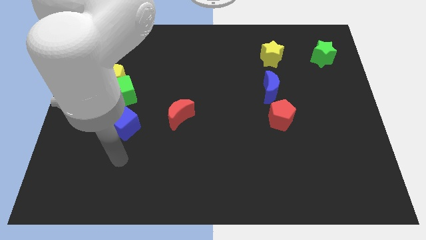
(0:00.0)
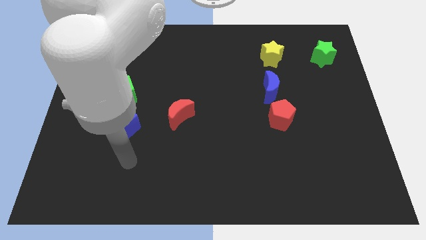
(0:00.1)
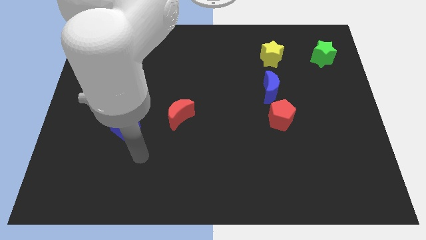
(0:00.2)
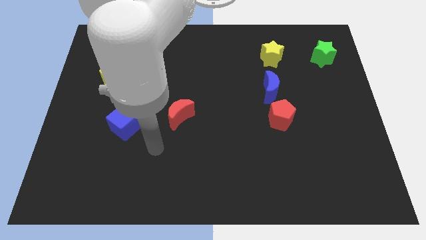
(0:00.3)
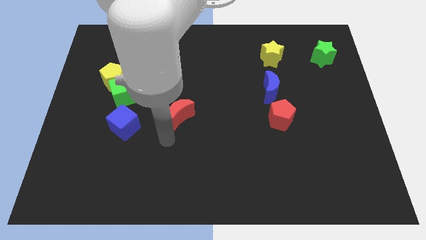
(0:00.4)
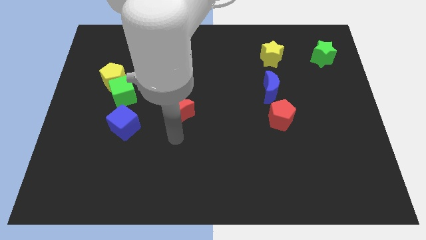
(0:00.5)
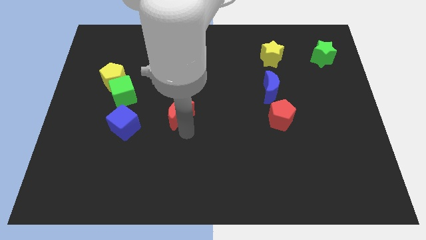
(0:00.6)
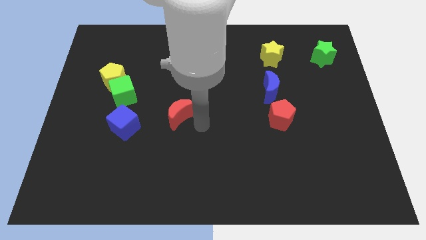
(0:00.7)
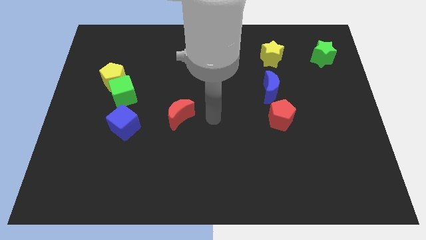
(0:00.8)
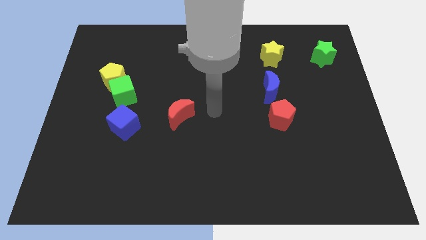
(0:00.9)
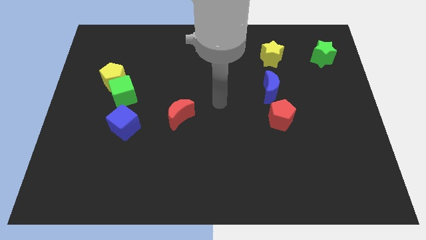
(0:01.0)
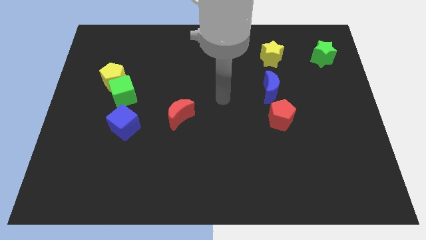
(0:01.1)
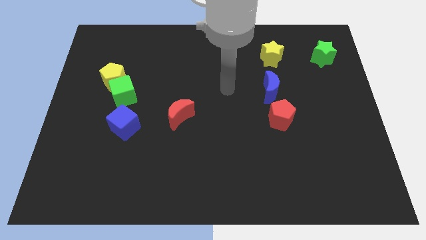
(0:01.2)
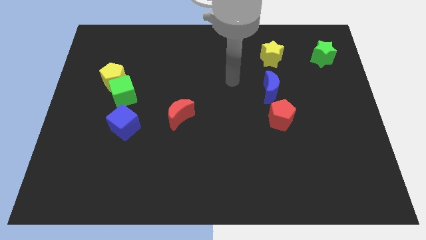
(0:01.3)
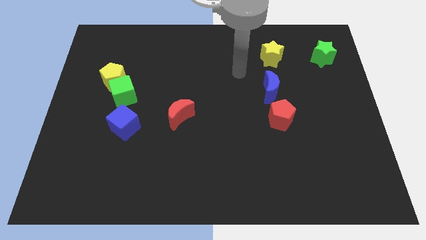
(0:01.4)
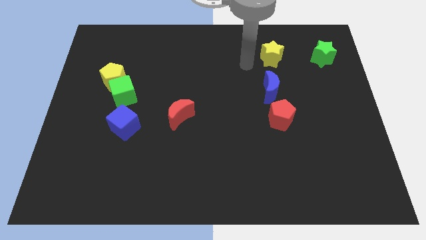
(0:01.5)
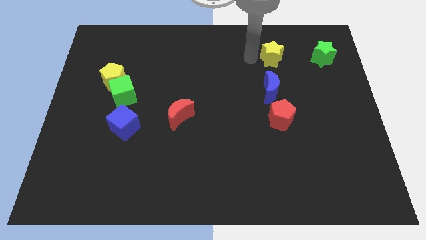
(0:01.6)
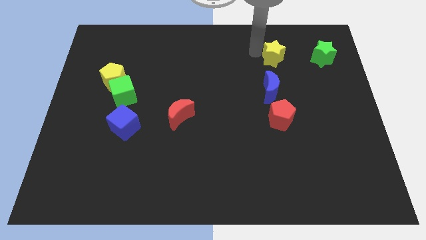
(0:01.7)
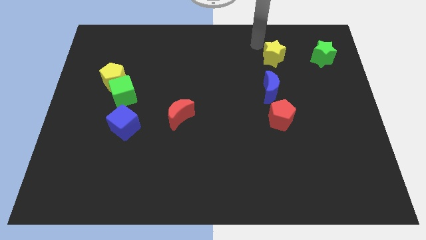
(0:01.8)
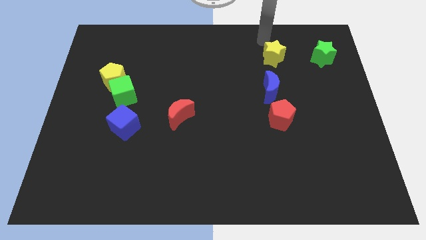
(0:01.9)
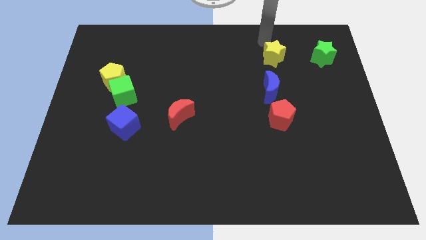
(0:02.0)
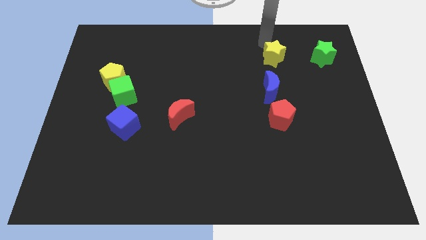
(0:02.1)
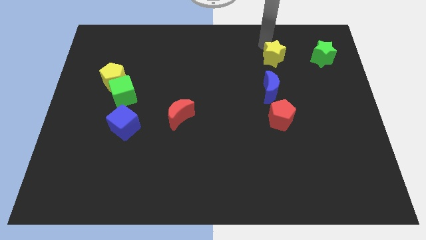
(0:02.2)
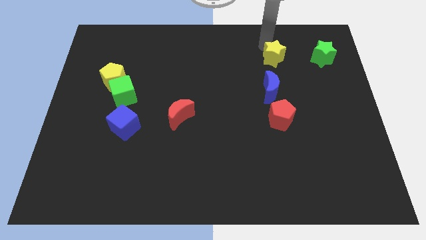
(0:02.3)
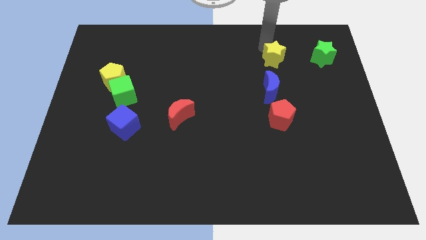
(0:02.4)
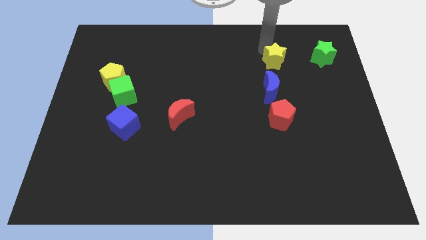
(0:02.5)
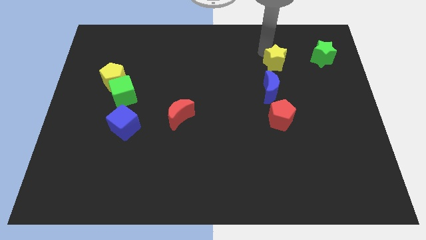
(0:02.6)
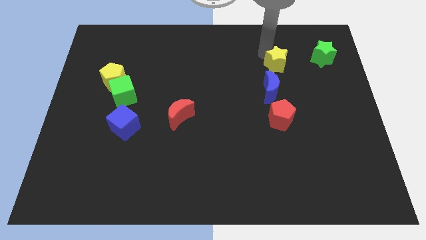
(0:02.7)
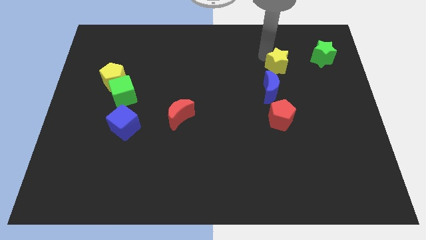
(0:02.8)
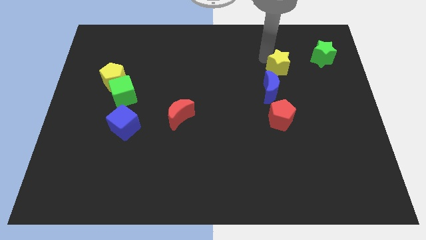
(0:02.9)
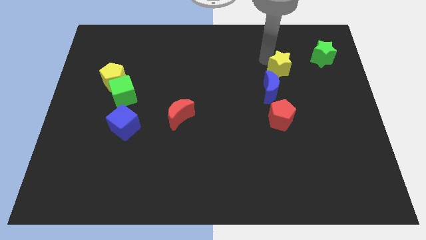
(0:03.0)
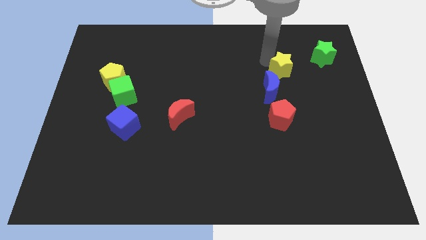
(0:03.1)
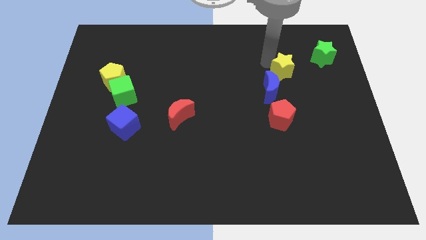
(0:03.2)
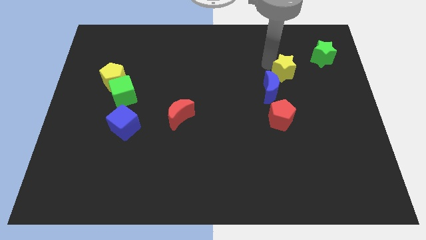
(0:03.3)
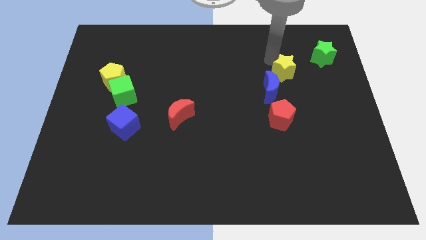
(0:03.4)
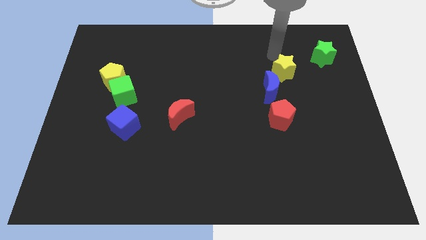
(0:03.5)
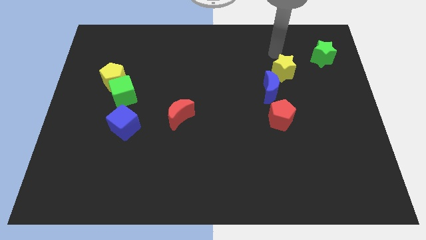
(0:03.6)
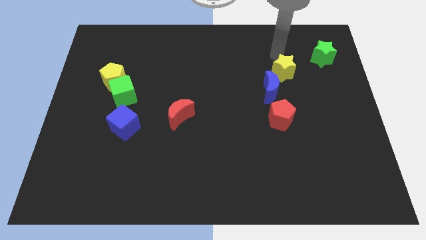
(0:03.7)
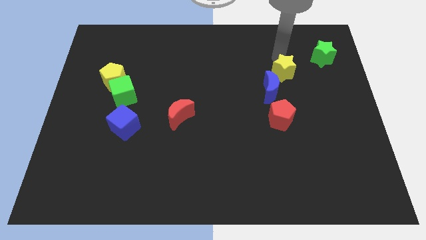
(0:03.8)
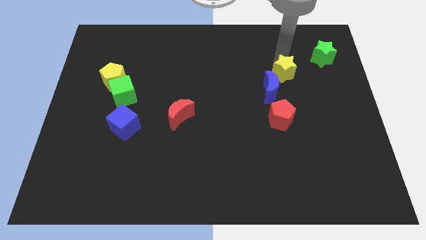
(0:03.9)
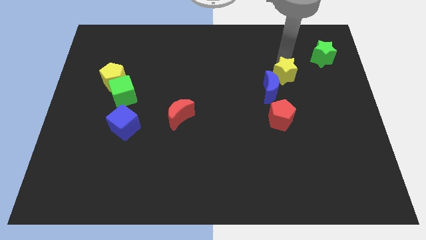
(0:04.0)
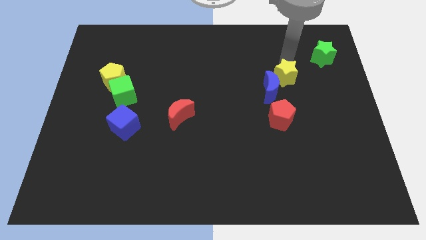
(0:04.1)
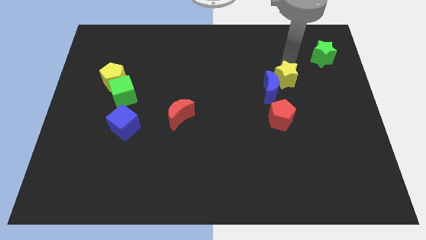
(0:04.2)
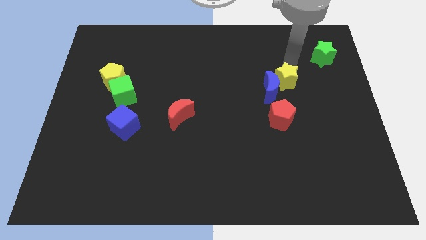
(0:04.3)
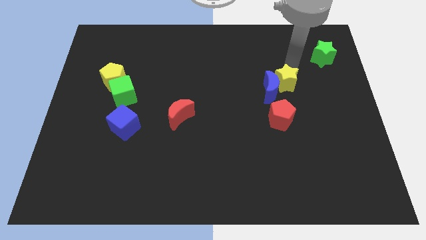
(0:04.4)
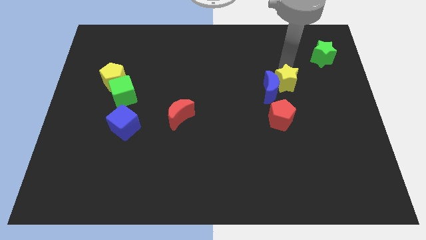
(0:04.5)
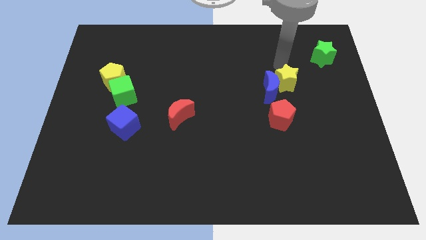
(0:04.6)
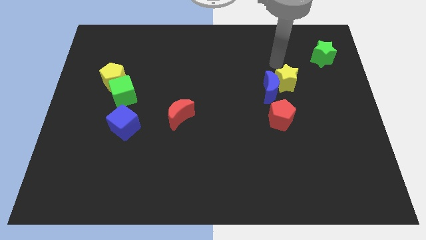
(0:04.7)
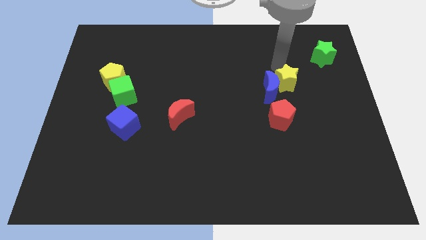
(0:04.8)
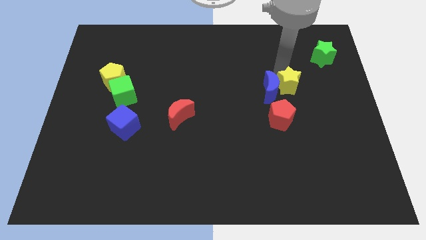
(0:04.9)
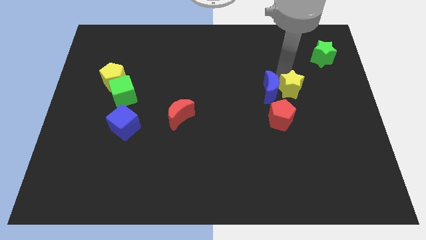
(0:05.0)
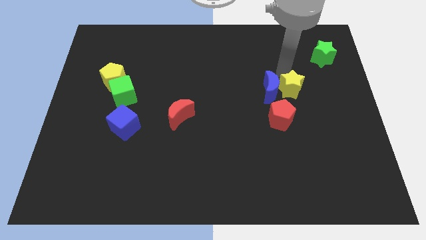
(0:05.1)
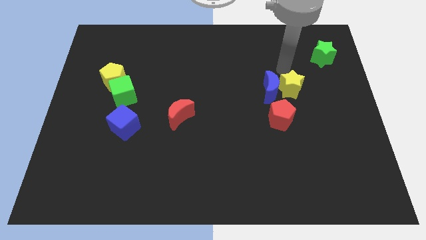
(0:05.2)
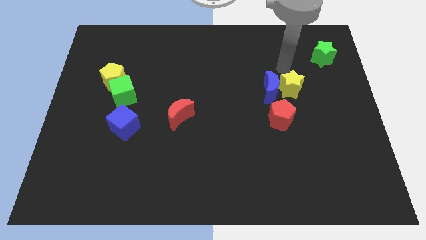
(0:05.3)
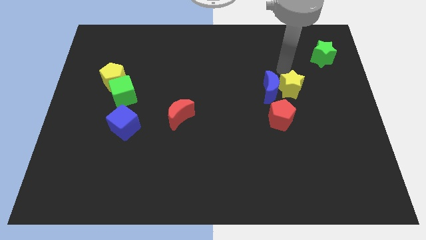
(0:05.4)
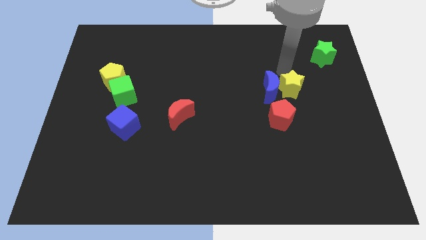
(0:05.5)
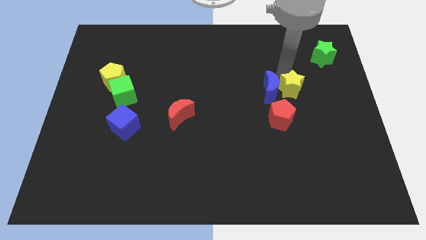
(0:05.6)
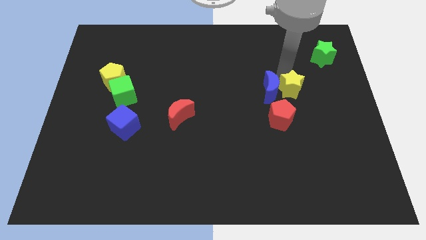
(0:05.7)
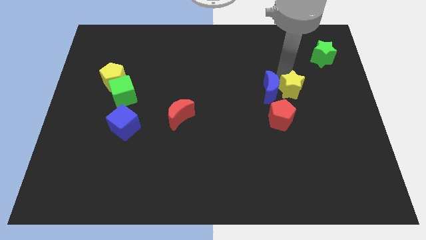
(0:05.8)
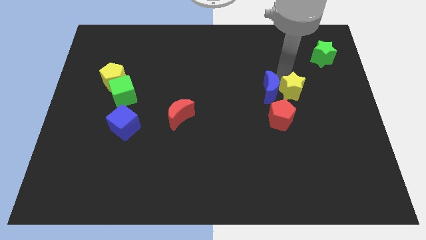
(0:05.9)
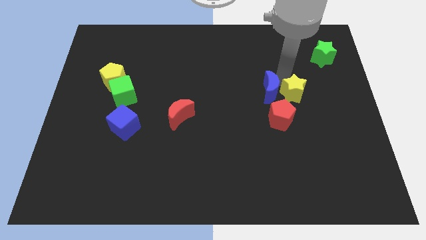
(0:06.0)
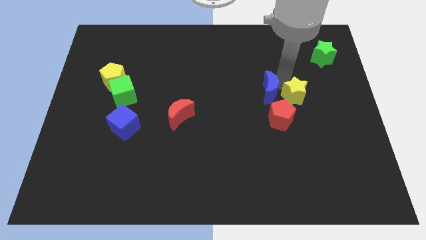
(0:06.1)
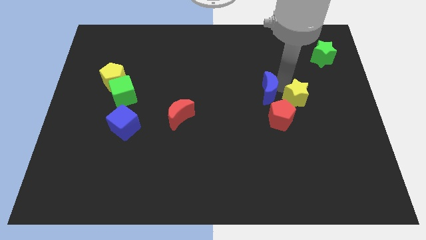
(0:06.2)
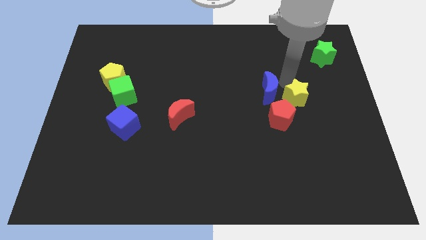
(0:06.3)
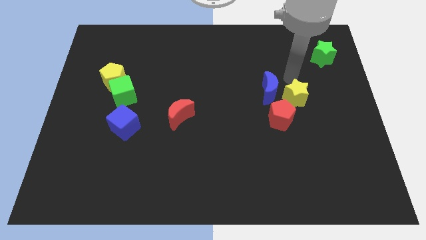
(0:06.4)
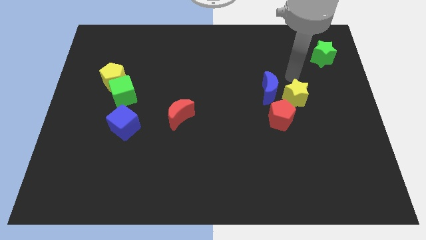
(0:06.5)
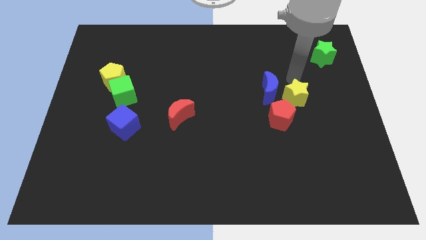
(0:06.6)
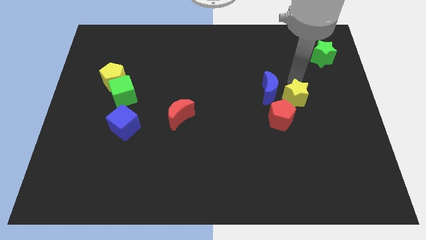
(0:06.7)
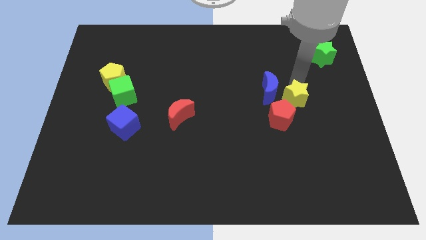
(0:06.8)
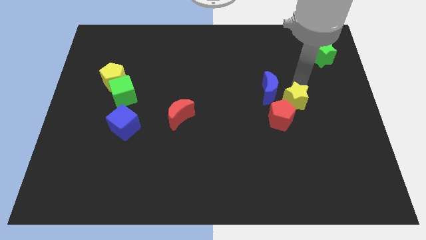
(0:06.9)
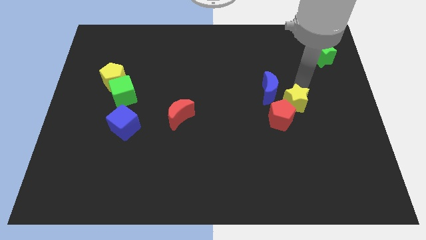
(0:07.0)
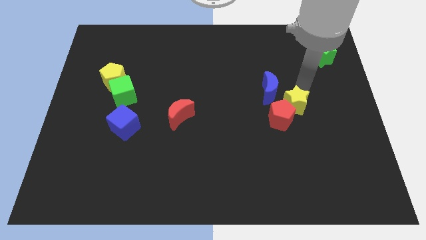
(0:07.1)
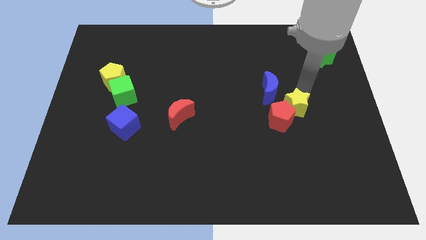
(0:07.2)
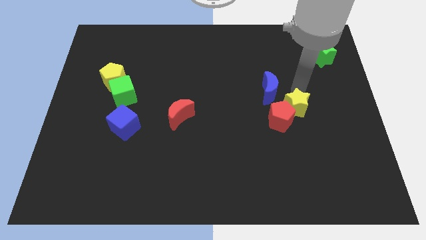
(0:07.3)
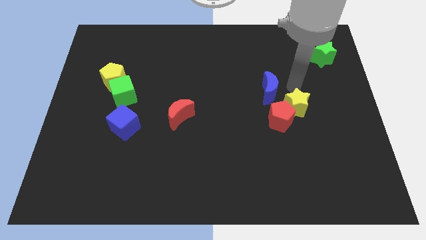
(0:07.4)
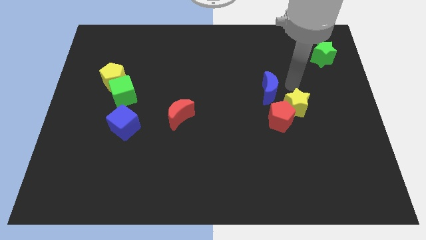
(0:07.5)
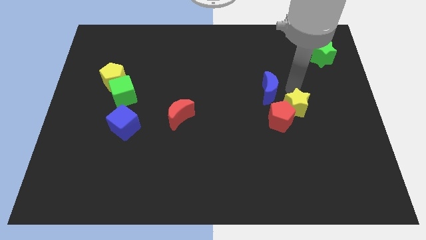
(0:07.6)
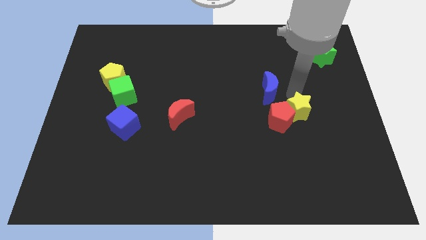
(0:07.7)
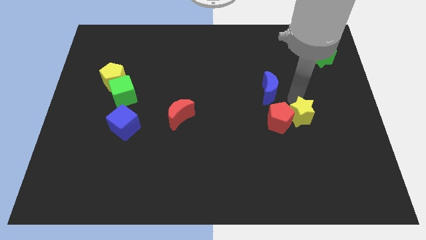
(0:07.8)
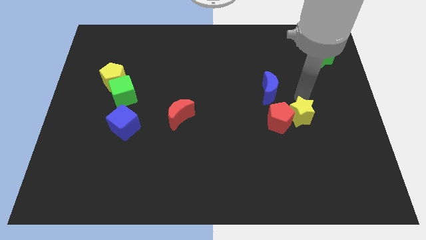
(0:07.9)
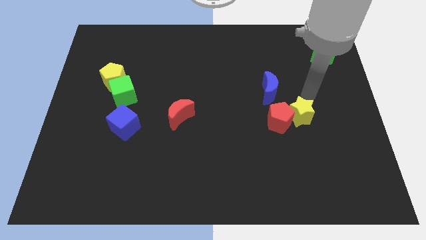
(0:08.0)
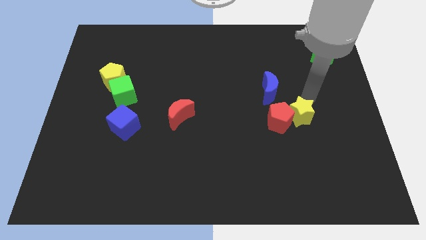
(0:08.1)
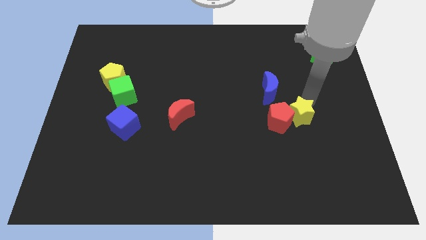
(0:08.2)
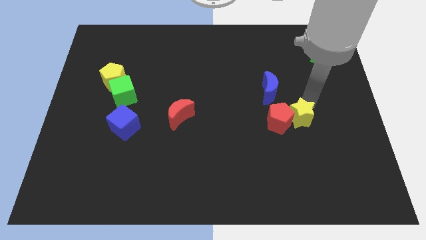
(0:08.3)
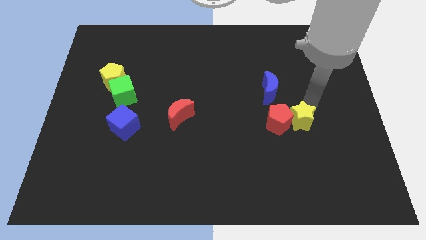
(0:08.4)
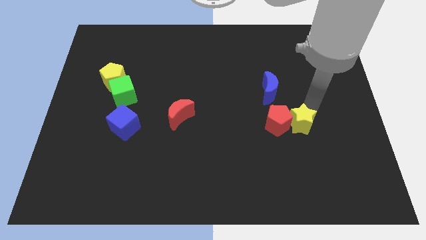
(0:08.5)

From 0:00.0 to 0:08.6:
slide the yellow star down
